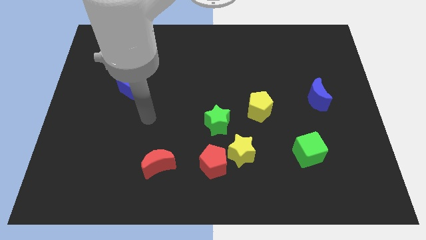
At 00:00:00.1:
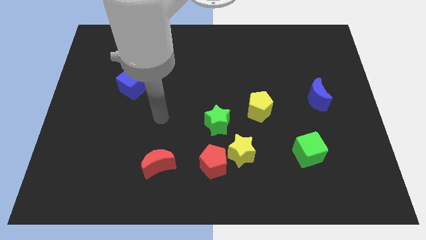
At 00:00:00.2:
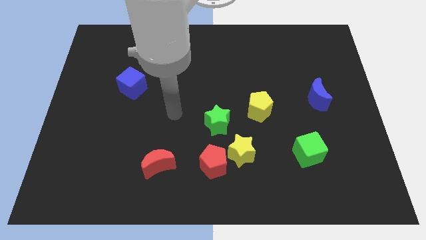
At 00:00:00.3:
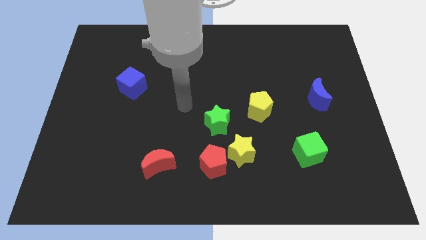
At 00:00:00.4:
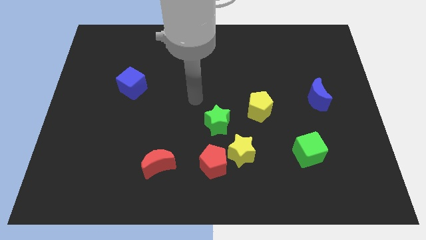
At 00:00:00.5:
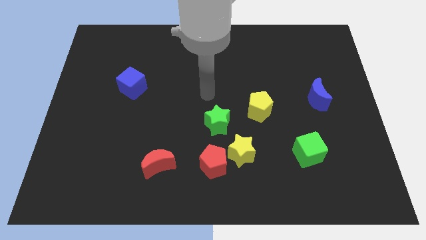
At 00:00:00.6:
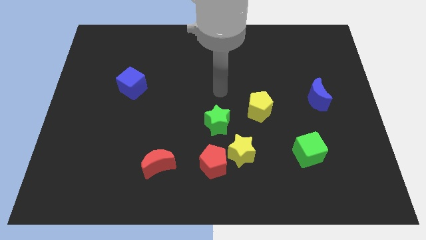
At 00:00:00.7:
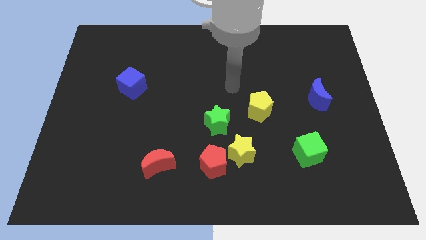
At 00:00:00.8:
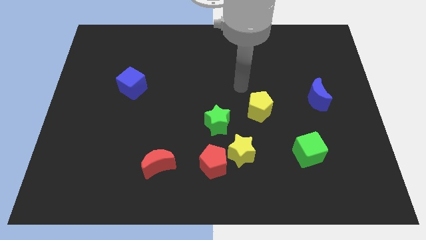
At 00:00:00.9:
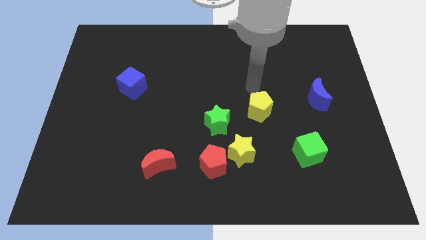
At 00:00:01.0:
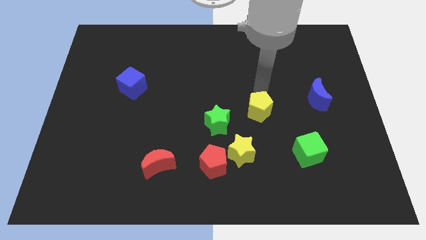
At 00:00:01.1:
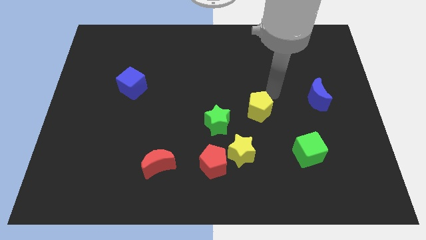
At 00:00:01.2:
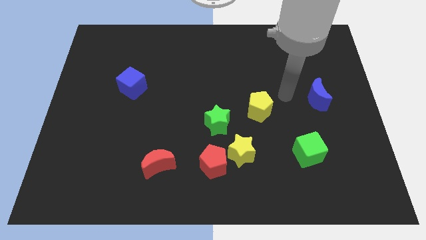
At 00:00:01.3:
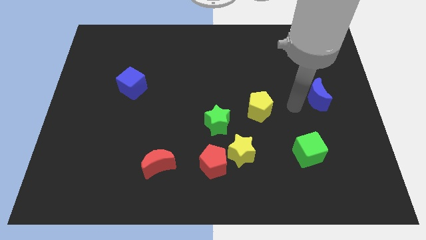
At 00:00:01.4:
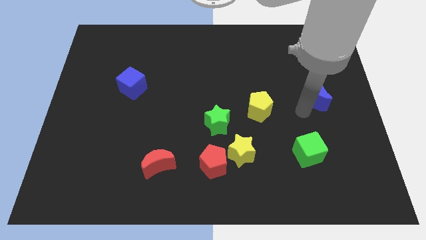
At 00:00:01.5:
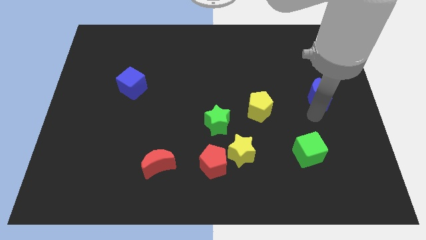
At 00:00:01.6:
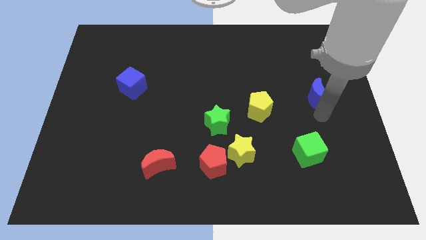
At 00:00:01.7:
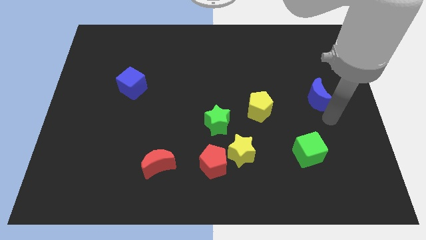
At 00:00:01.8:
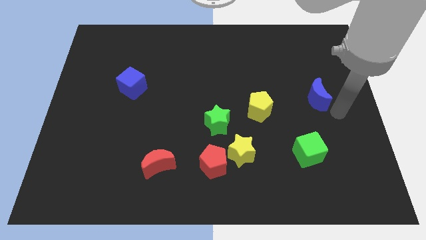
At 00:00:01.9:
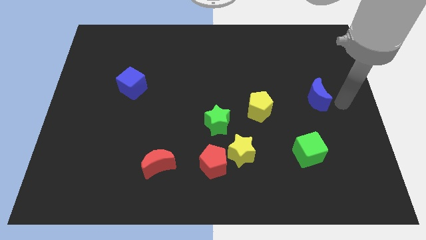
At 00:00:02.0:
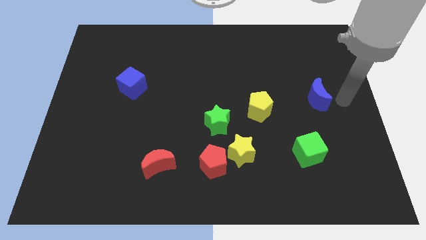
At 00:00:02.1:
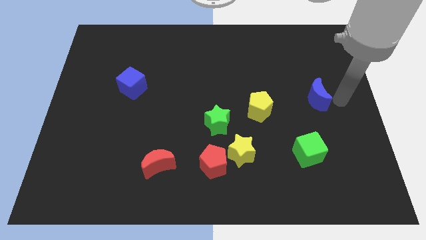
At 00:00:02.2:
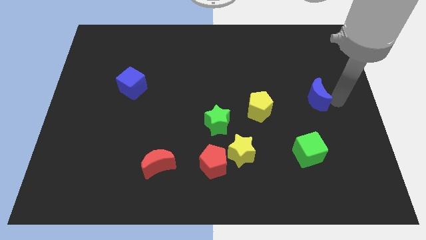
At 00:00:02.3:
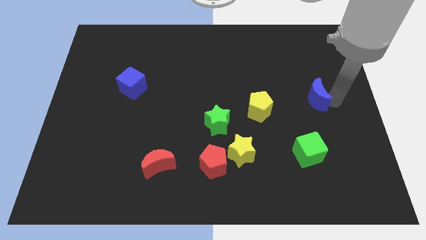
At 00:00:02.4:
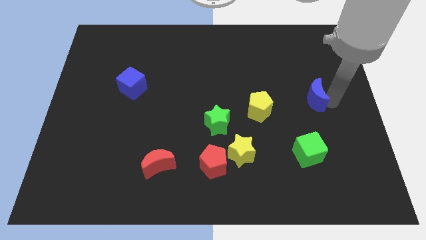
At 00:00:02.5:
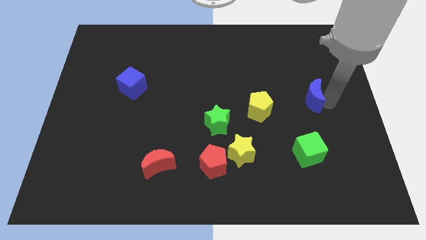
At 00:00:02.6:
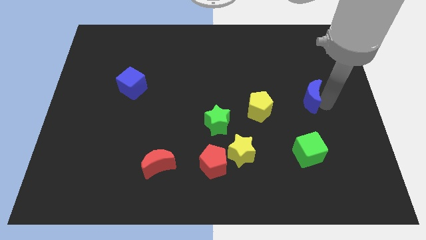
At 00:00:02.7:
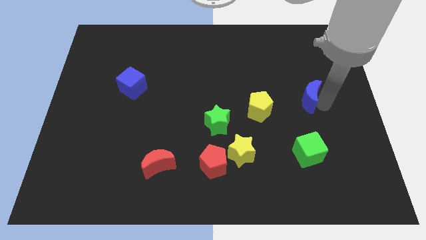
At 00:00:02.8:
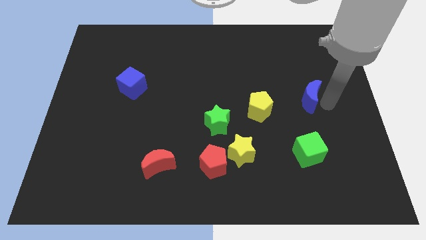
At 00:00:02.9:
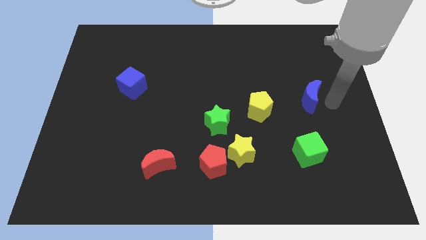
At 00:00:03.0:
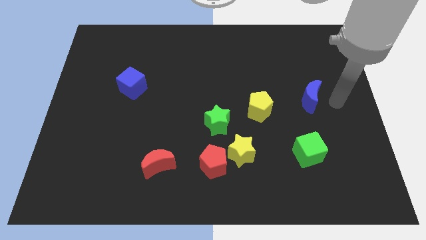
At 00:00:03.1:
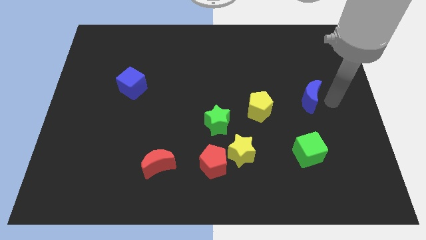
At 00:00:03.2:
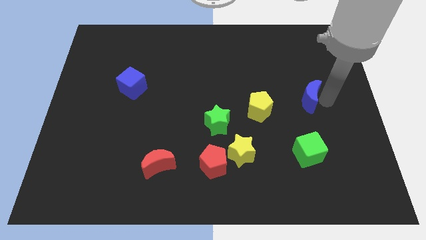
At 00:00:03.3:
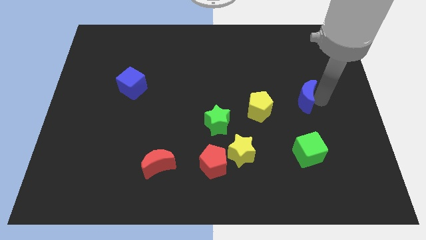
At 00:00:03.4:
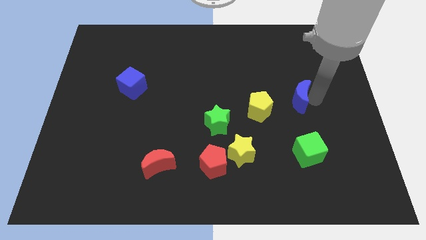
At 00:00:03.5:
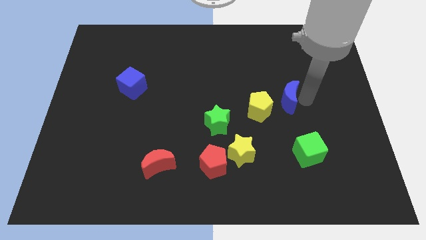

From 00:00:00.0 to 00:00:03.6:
slightly move the blue moon to the left

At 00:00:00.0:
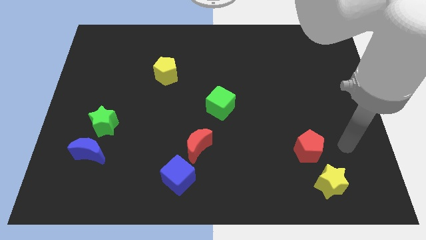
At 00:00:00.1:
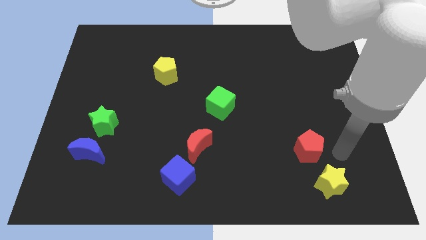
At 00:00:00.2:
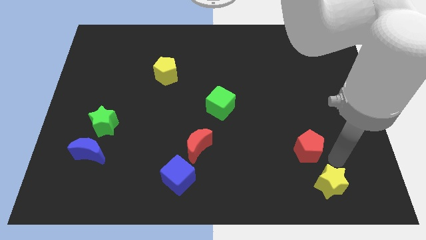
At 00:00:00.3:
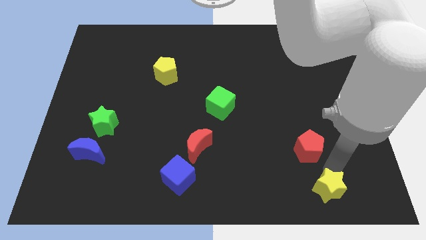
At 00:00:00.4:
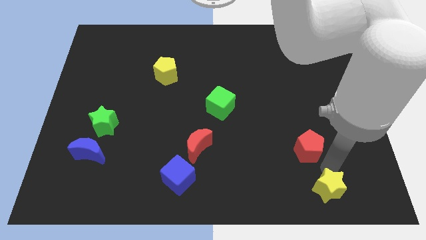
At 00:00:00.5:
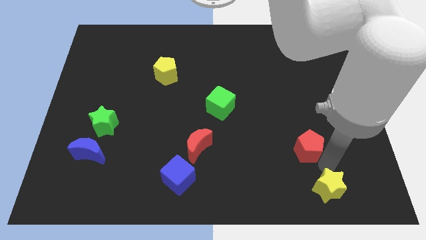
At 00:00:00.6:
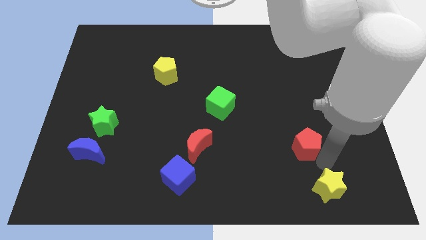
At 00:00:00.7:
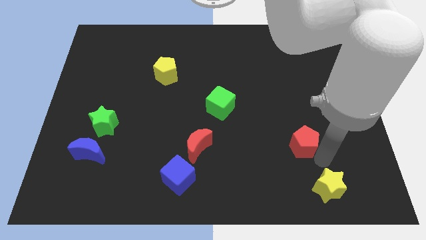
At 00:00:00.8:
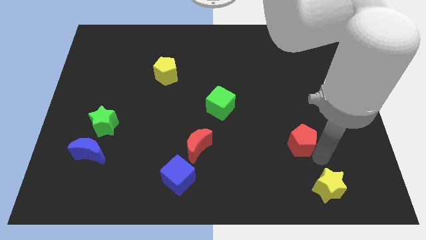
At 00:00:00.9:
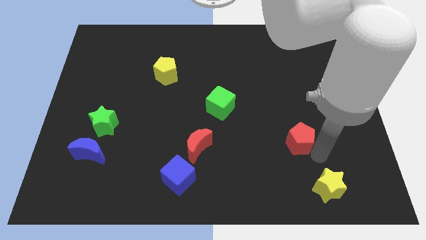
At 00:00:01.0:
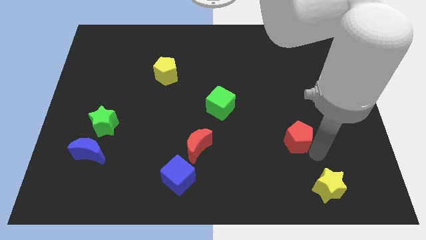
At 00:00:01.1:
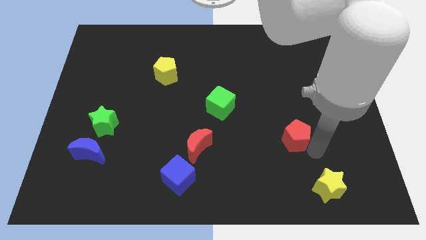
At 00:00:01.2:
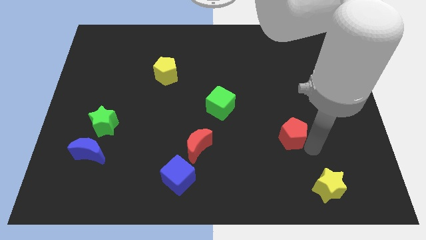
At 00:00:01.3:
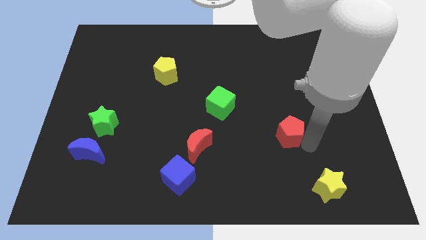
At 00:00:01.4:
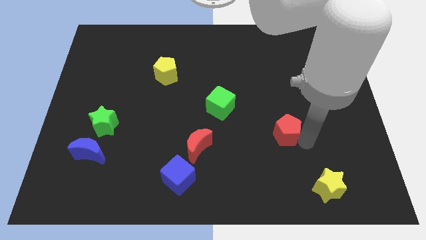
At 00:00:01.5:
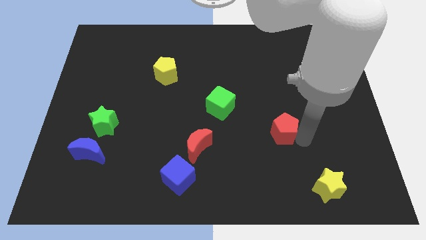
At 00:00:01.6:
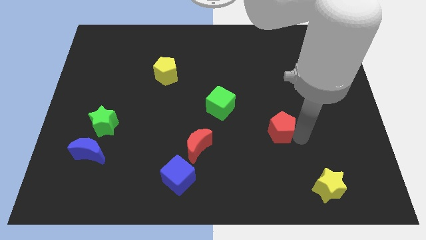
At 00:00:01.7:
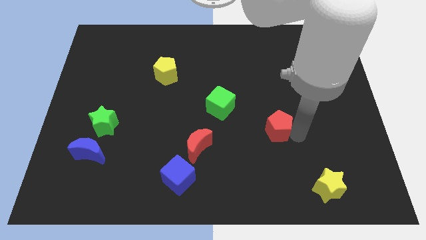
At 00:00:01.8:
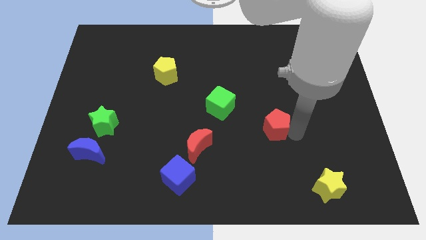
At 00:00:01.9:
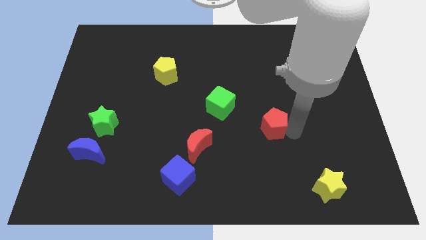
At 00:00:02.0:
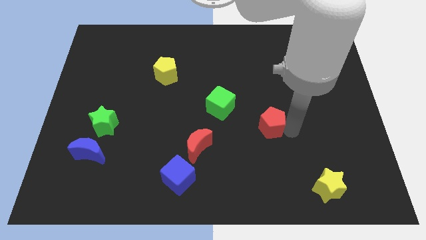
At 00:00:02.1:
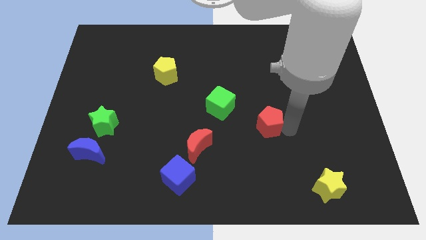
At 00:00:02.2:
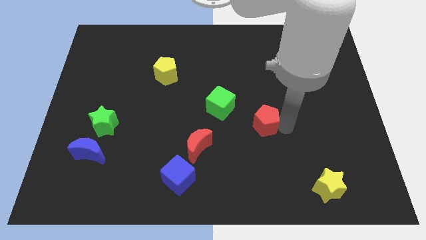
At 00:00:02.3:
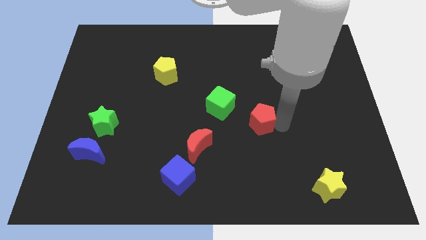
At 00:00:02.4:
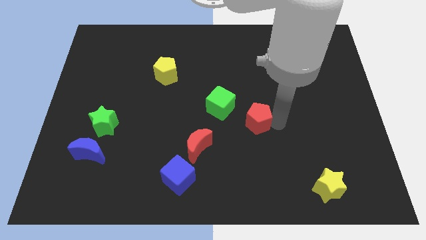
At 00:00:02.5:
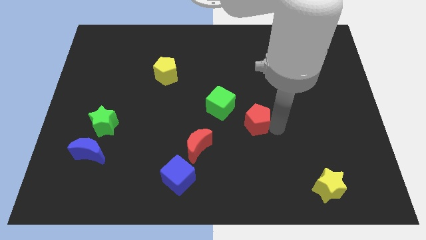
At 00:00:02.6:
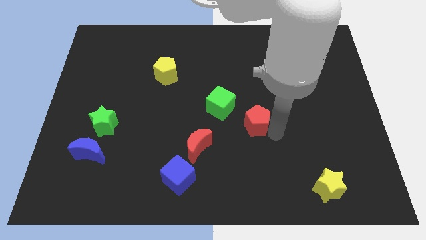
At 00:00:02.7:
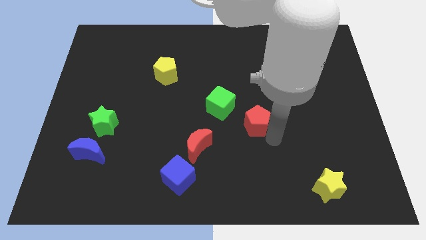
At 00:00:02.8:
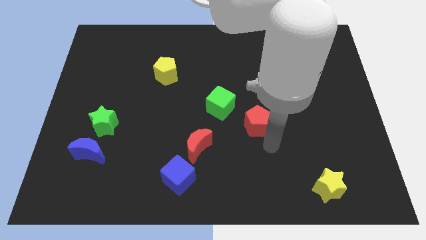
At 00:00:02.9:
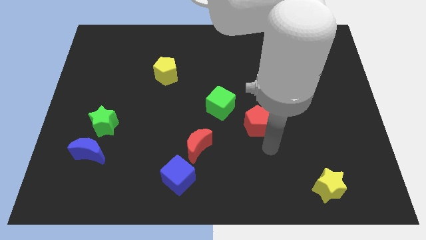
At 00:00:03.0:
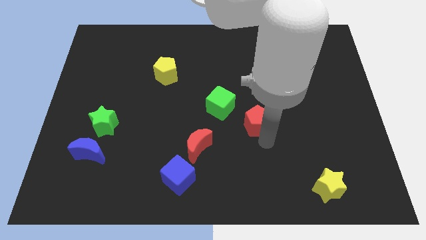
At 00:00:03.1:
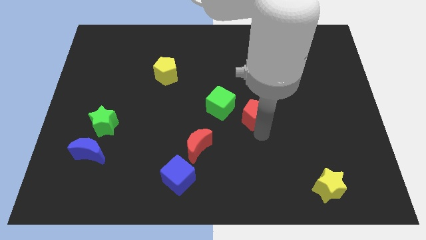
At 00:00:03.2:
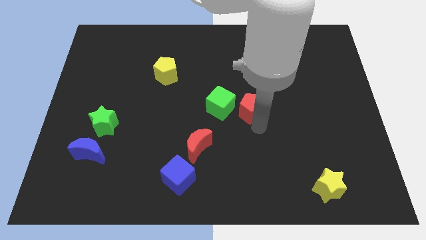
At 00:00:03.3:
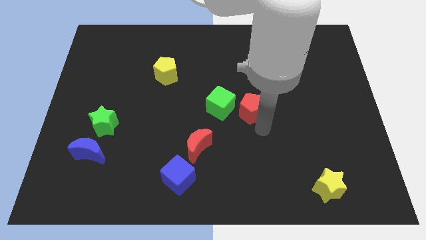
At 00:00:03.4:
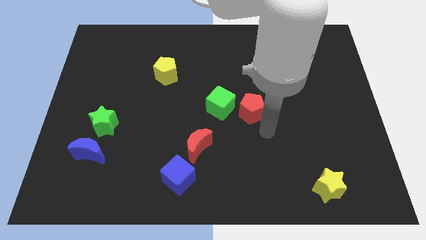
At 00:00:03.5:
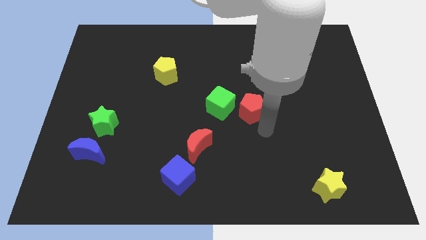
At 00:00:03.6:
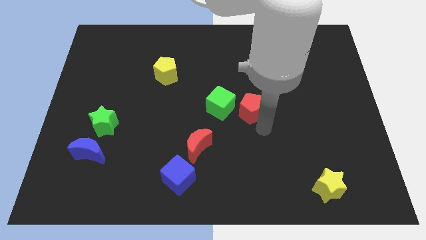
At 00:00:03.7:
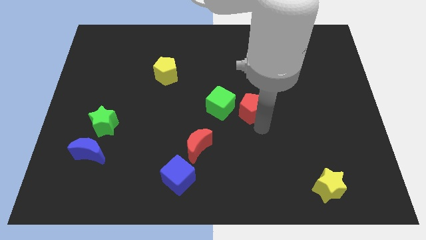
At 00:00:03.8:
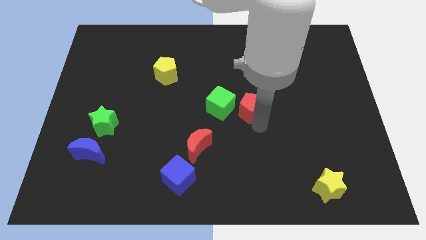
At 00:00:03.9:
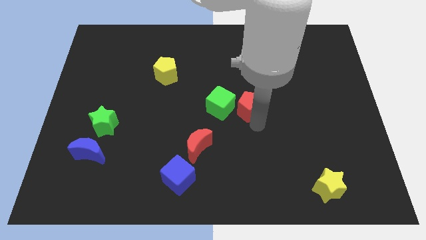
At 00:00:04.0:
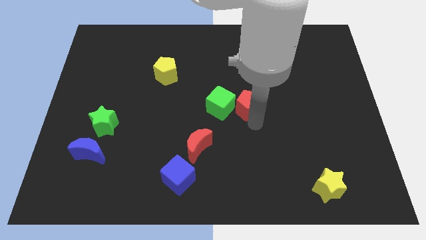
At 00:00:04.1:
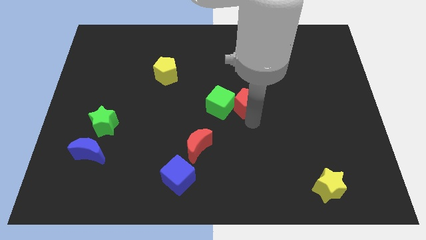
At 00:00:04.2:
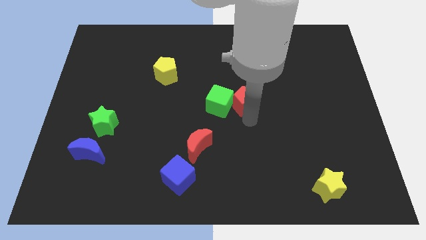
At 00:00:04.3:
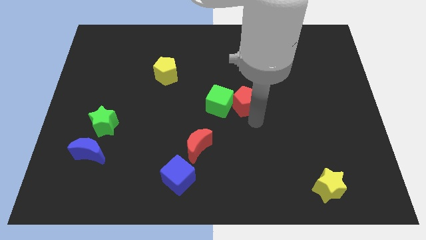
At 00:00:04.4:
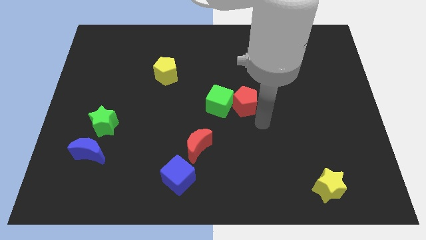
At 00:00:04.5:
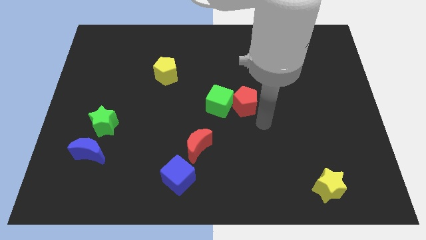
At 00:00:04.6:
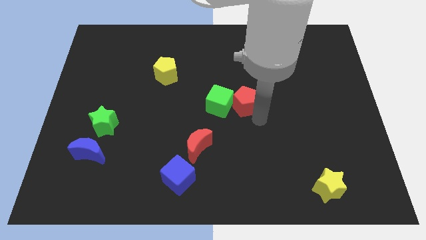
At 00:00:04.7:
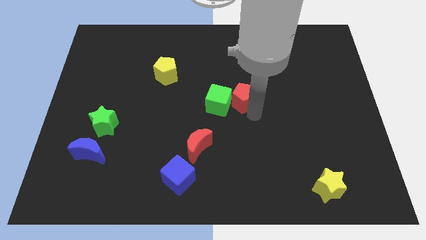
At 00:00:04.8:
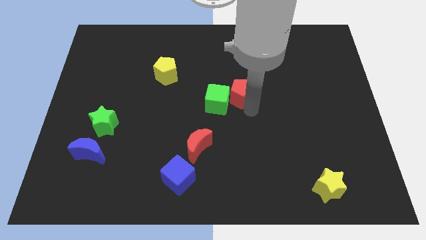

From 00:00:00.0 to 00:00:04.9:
slide the red pentagon upwards and left
